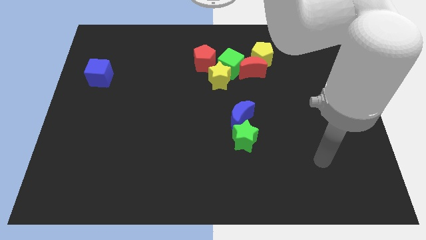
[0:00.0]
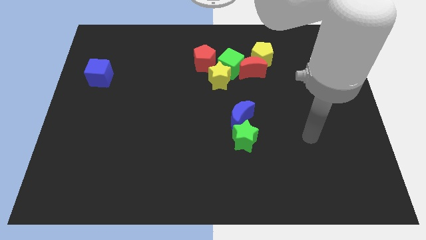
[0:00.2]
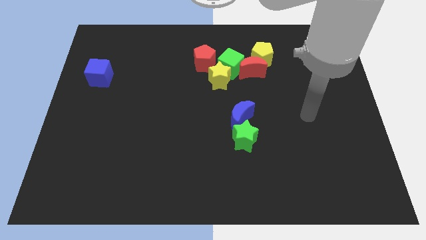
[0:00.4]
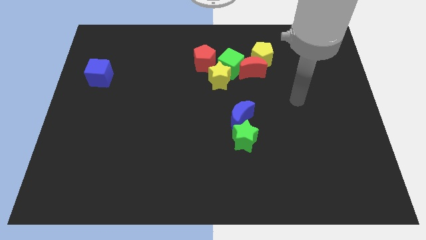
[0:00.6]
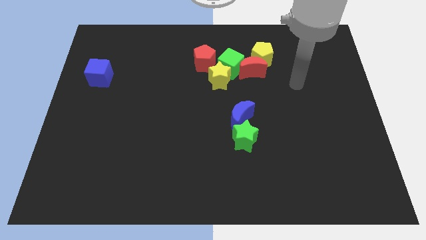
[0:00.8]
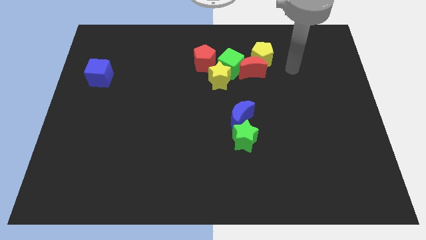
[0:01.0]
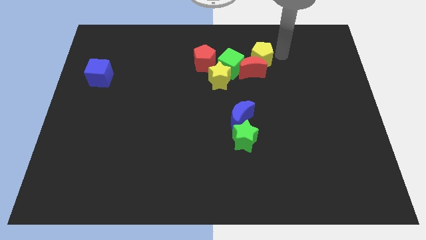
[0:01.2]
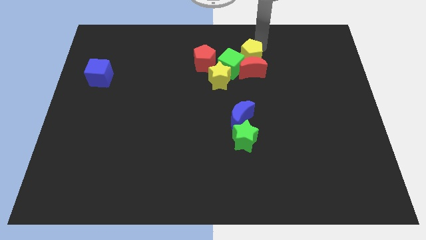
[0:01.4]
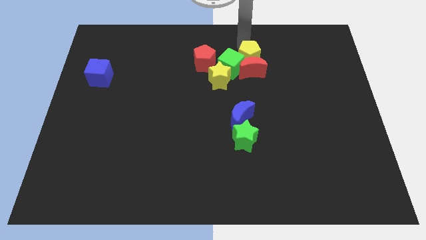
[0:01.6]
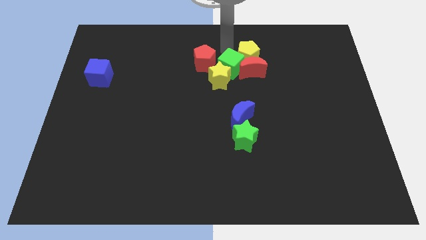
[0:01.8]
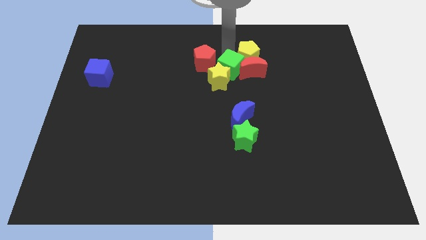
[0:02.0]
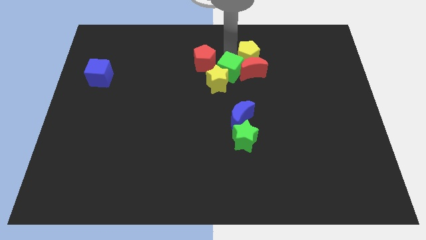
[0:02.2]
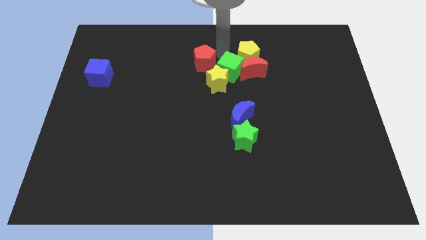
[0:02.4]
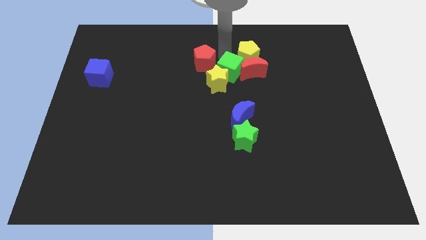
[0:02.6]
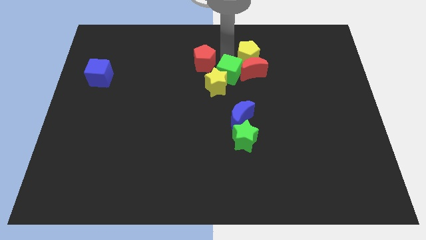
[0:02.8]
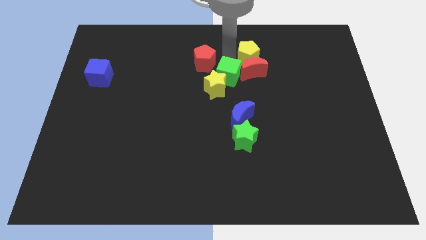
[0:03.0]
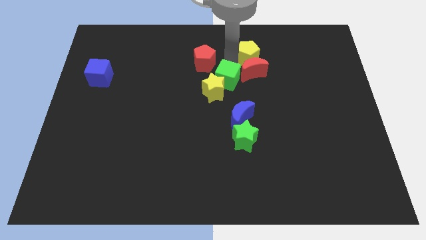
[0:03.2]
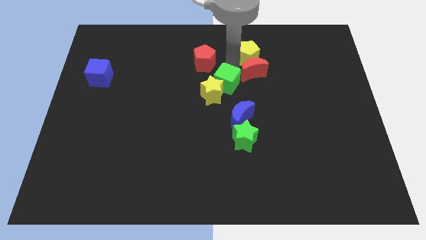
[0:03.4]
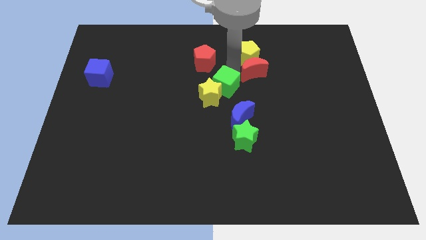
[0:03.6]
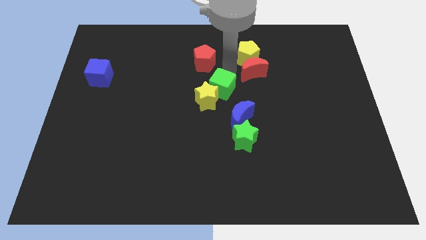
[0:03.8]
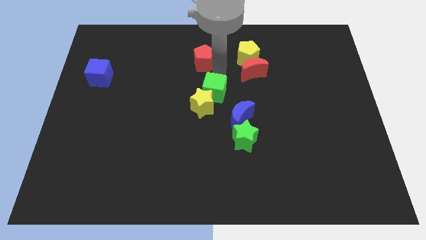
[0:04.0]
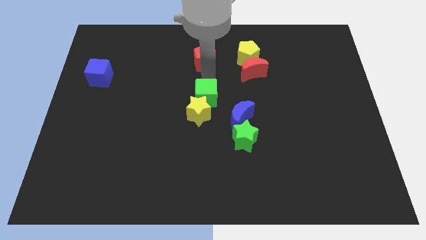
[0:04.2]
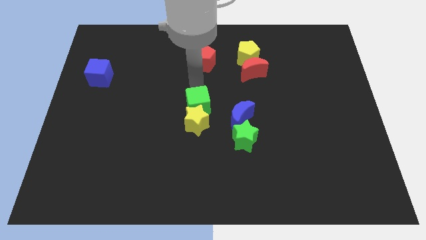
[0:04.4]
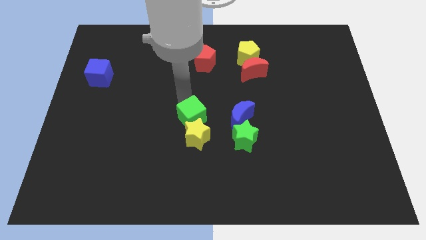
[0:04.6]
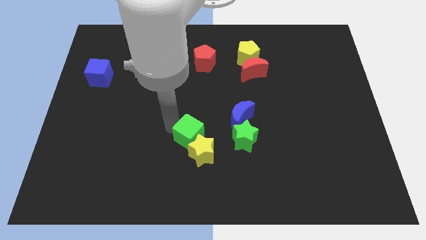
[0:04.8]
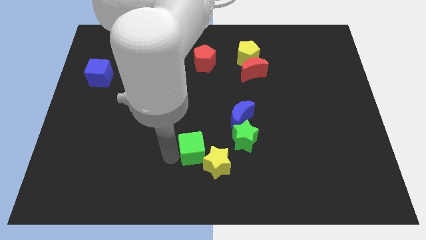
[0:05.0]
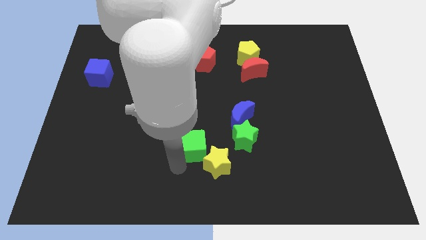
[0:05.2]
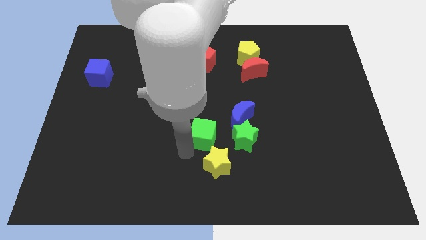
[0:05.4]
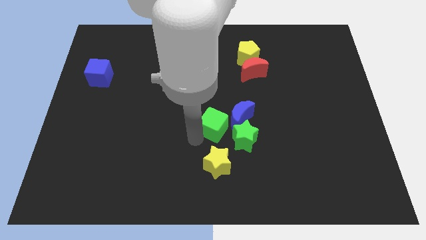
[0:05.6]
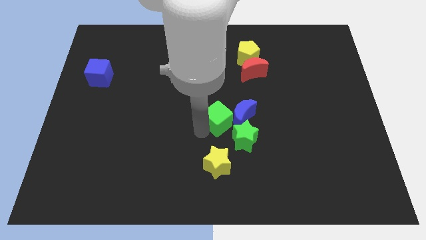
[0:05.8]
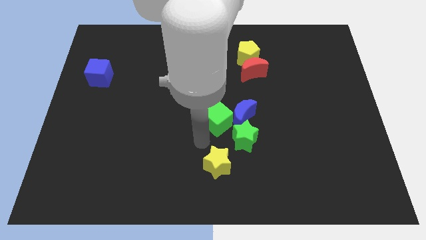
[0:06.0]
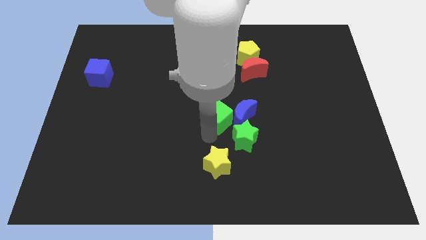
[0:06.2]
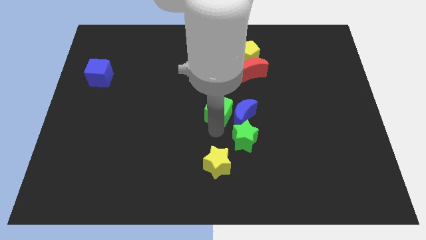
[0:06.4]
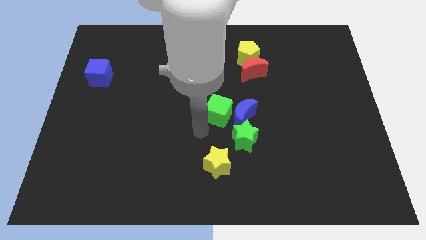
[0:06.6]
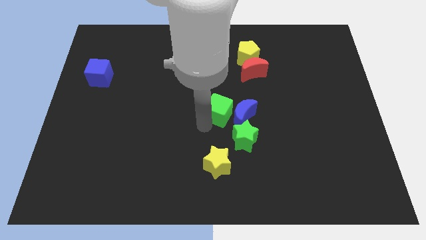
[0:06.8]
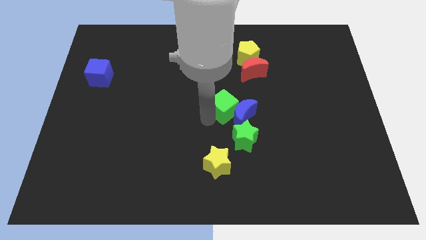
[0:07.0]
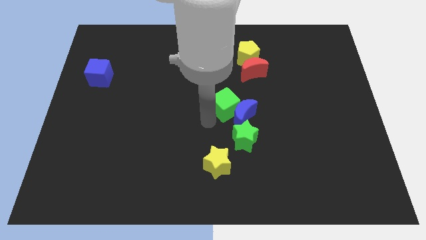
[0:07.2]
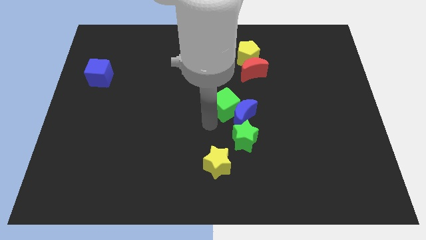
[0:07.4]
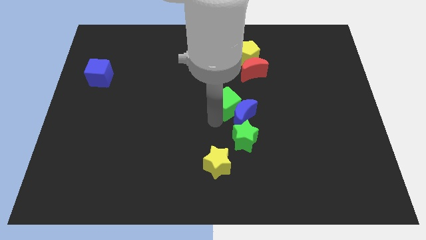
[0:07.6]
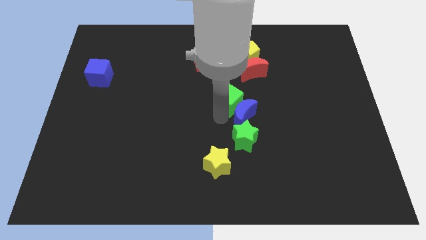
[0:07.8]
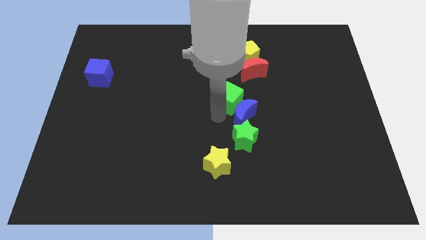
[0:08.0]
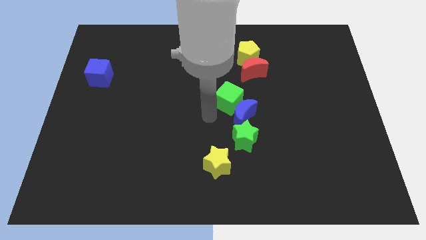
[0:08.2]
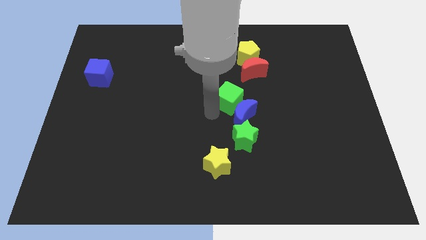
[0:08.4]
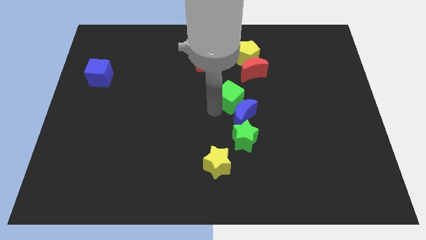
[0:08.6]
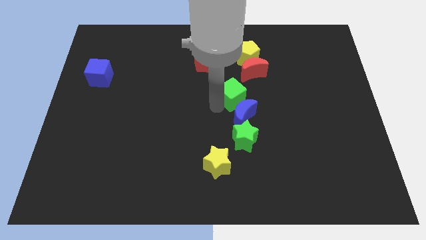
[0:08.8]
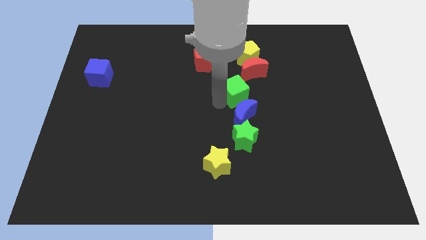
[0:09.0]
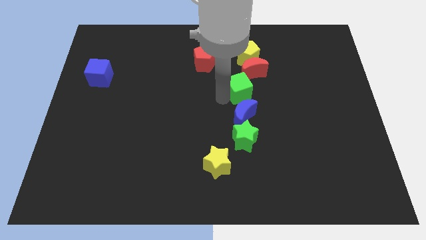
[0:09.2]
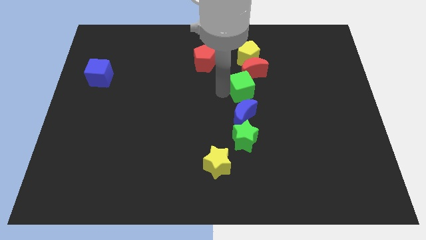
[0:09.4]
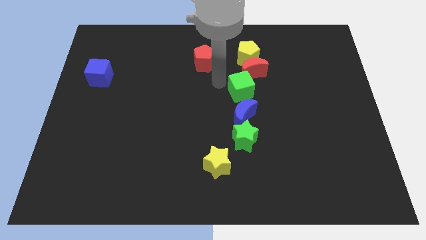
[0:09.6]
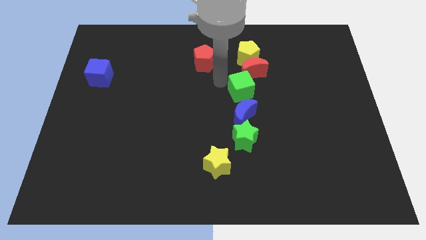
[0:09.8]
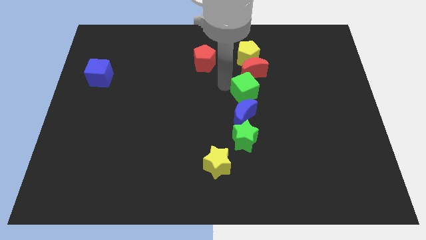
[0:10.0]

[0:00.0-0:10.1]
move the green cube to the top right side of the blue moon

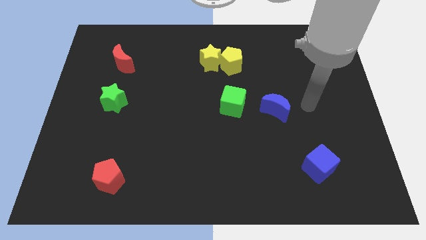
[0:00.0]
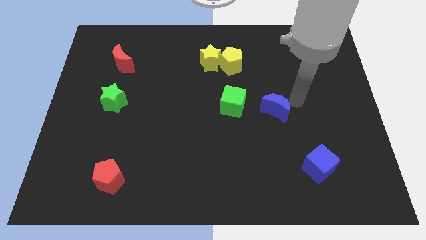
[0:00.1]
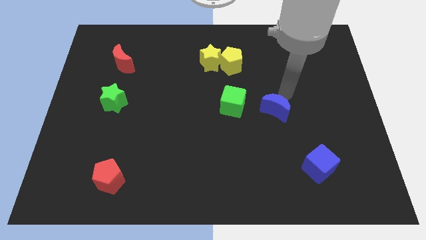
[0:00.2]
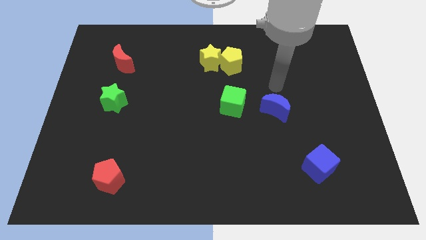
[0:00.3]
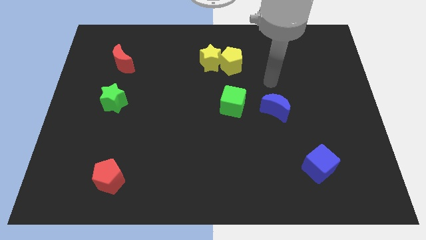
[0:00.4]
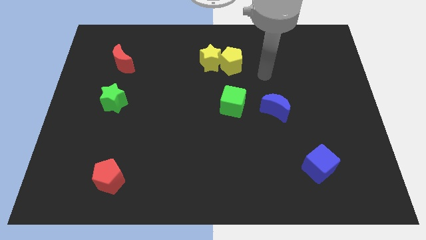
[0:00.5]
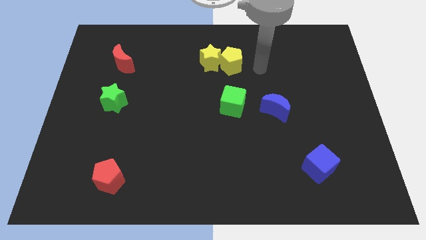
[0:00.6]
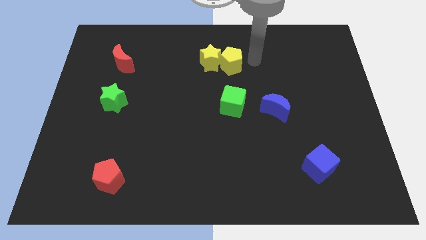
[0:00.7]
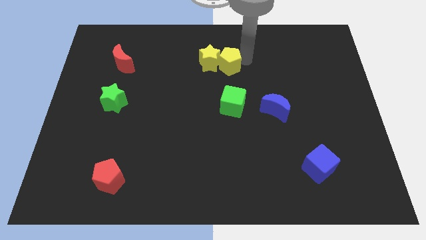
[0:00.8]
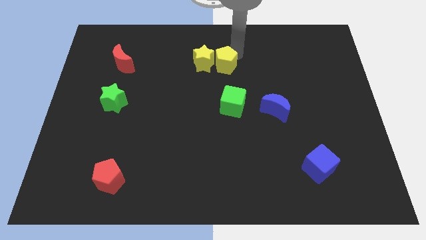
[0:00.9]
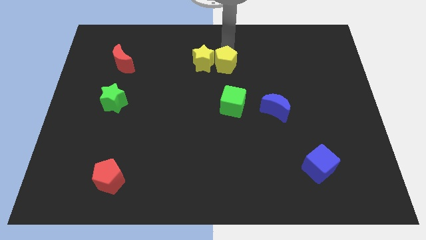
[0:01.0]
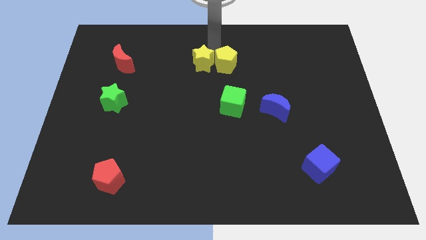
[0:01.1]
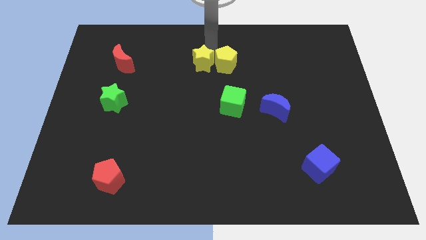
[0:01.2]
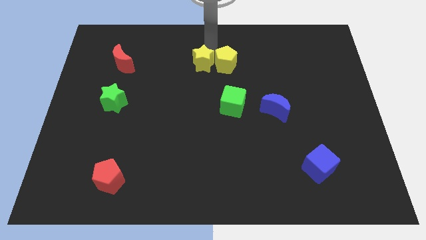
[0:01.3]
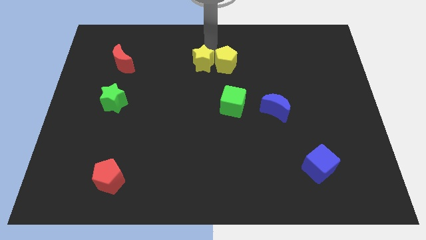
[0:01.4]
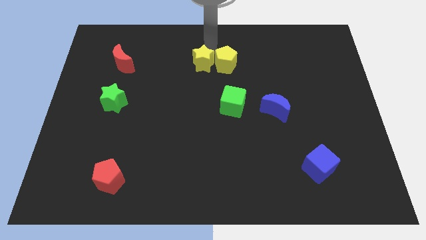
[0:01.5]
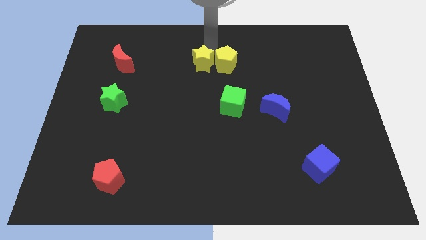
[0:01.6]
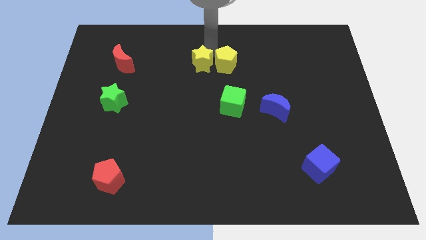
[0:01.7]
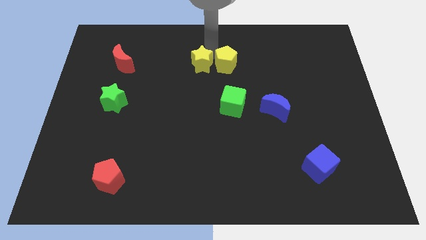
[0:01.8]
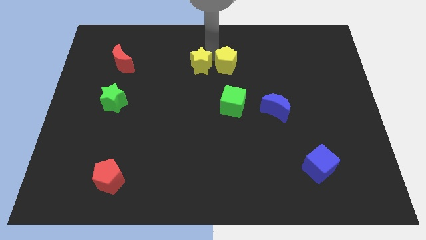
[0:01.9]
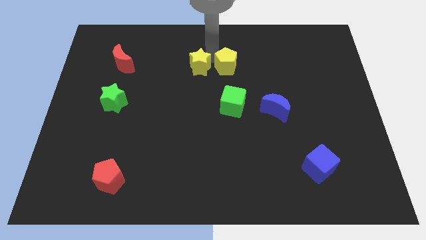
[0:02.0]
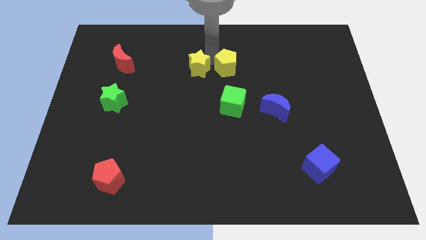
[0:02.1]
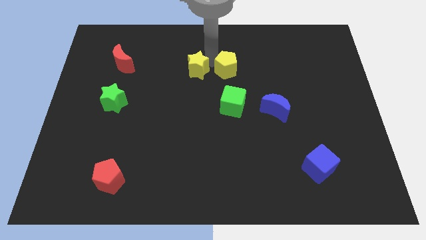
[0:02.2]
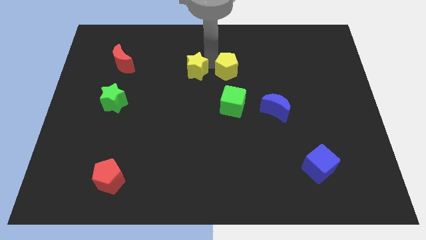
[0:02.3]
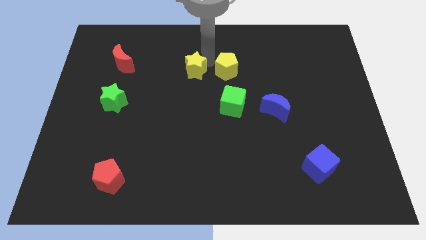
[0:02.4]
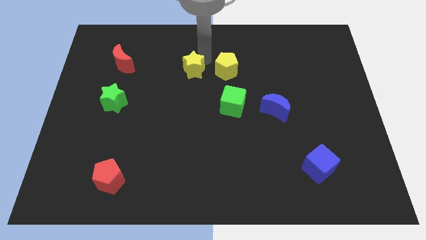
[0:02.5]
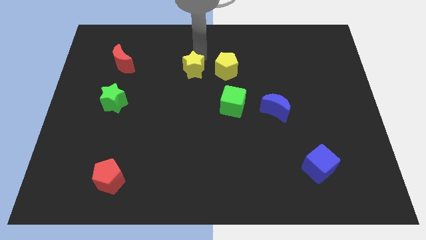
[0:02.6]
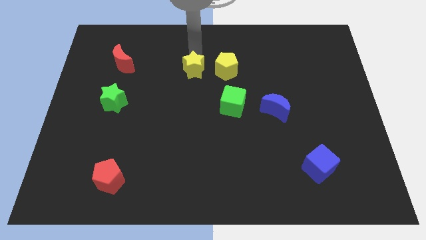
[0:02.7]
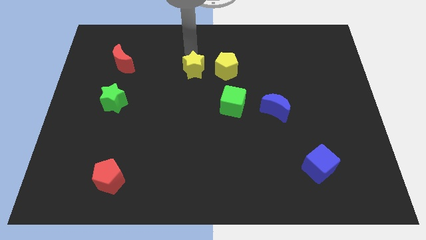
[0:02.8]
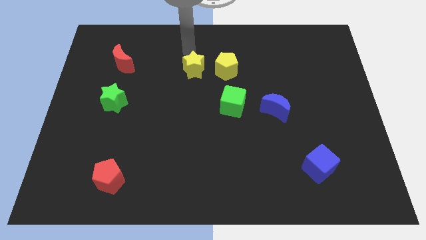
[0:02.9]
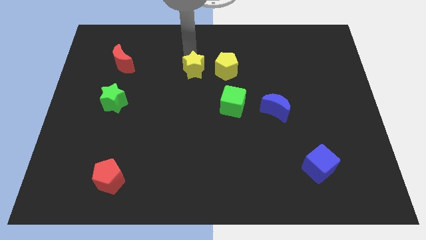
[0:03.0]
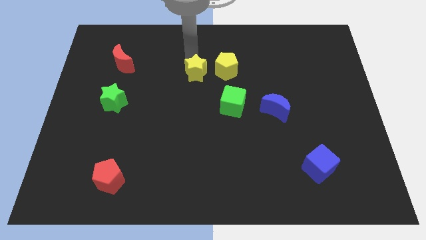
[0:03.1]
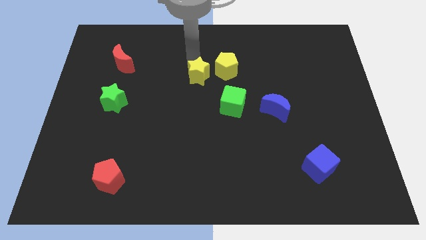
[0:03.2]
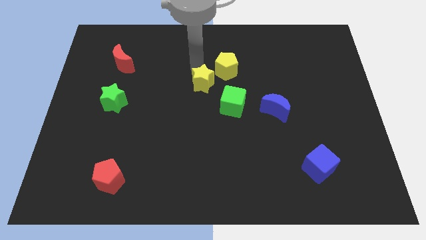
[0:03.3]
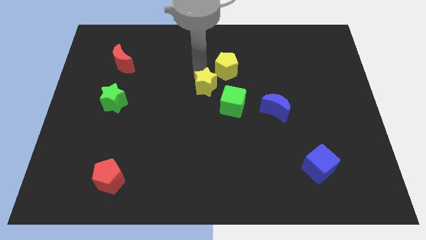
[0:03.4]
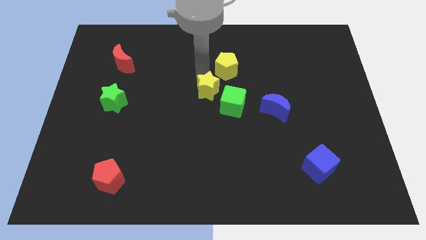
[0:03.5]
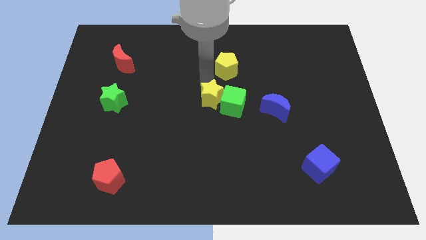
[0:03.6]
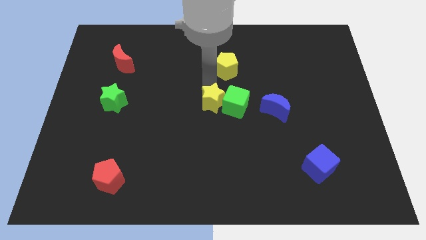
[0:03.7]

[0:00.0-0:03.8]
push the yellow star to the bottom left side of the green cube
